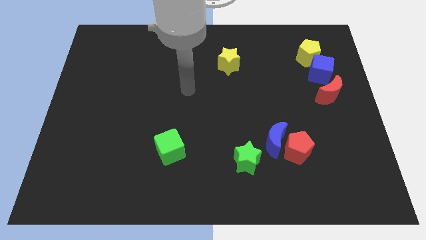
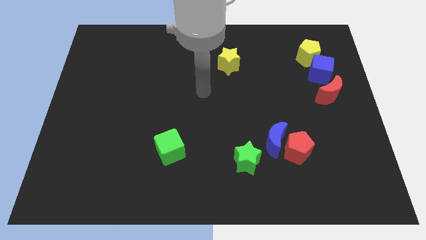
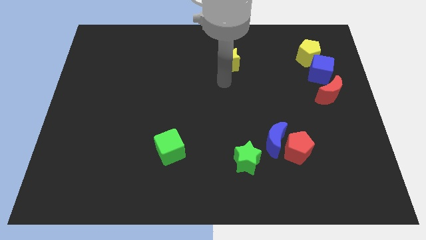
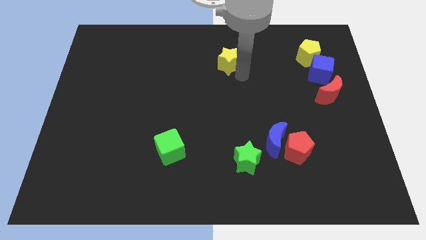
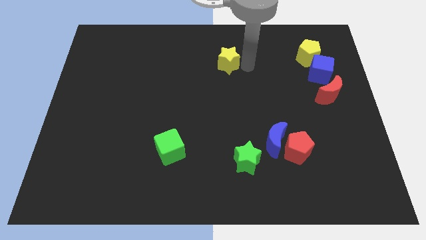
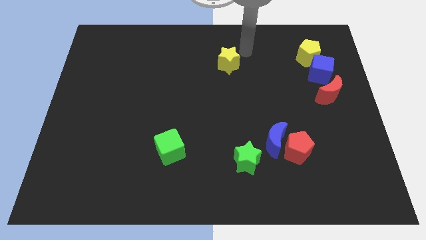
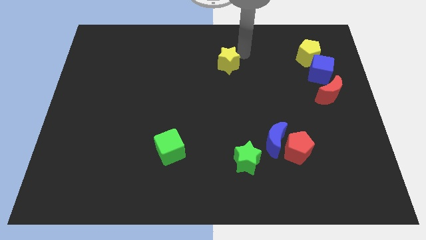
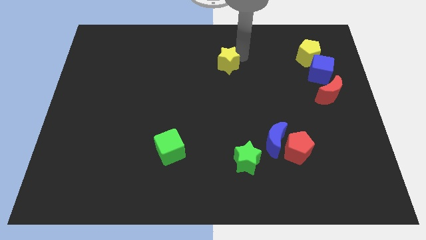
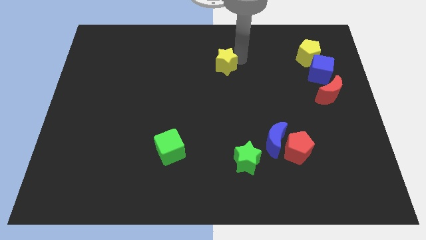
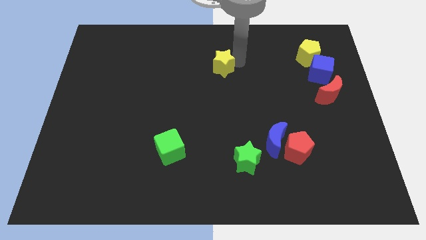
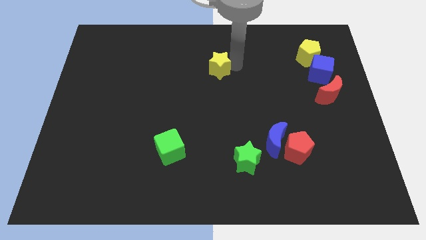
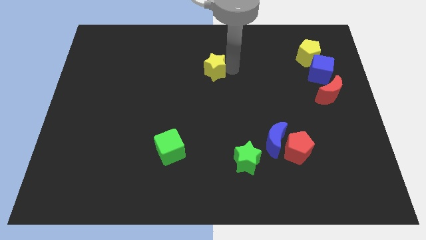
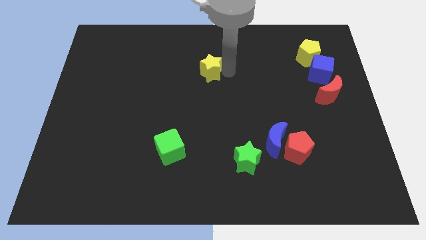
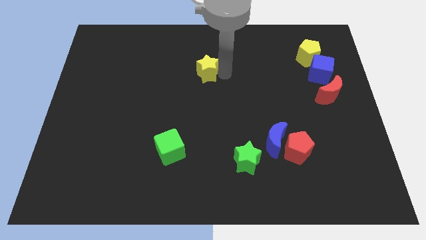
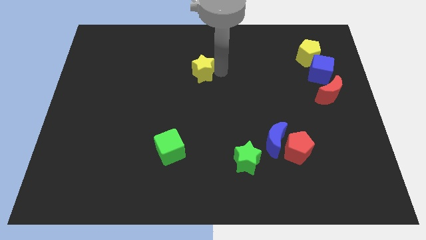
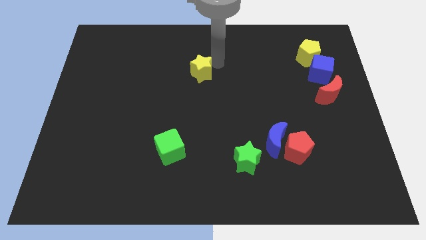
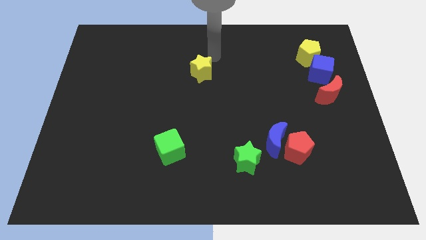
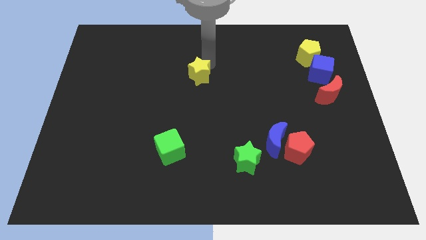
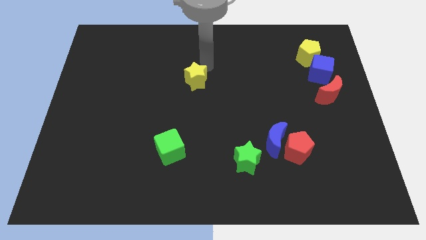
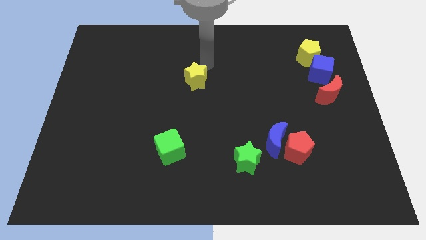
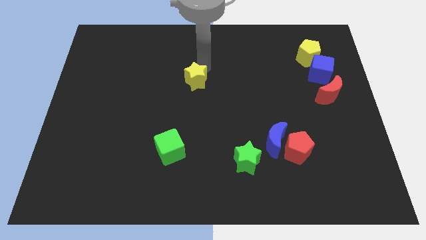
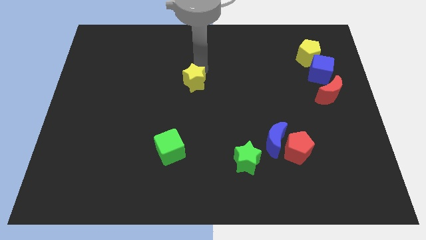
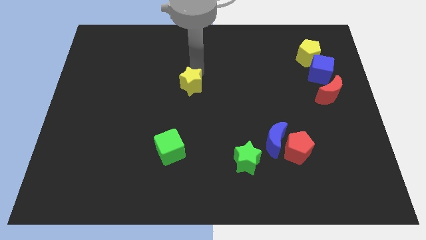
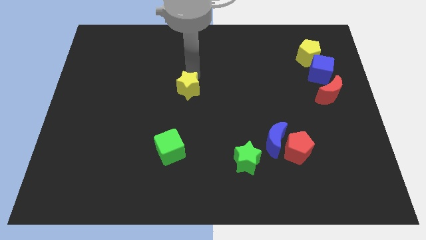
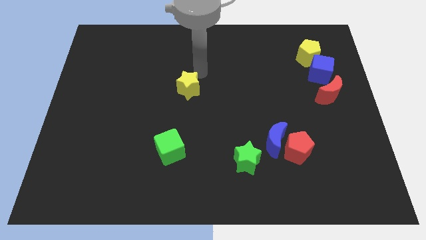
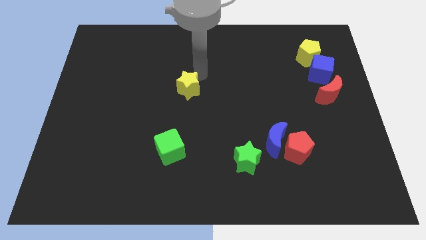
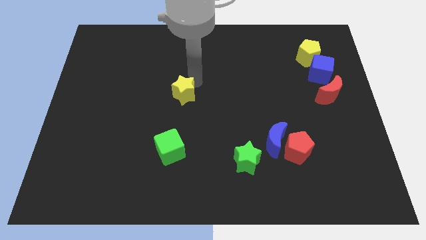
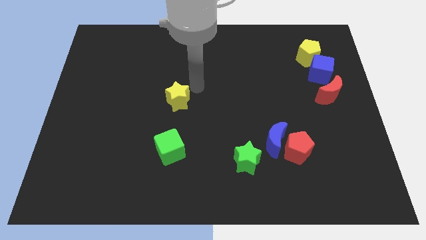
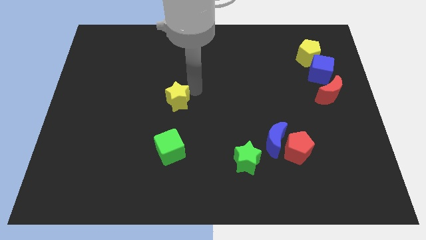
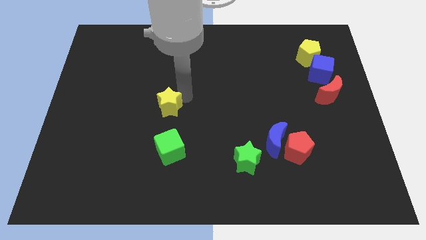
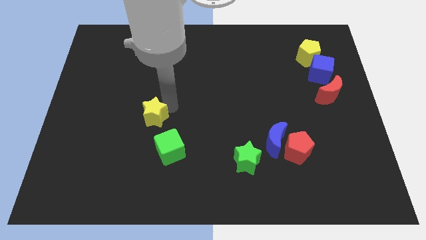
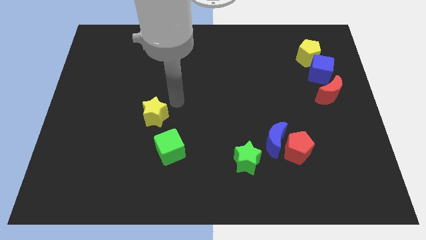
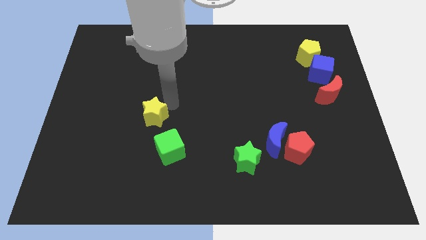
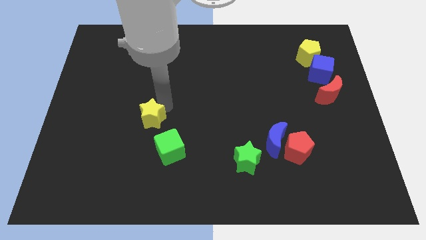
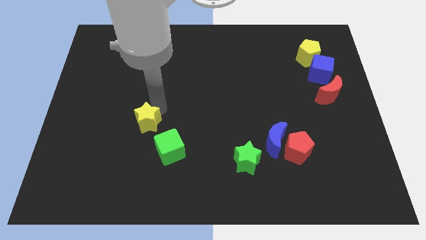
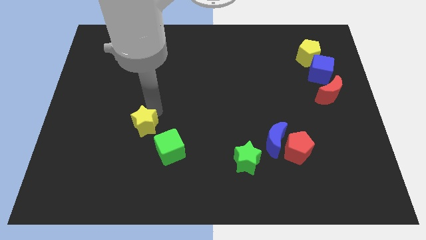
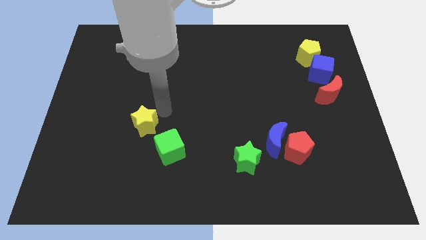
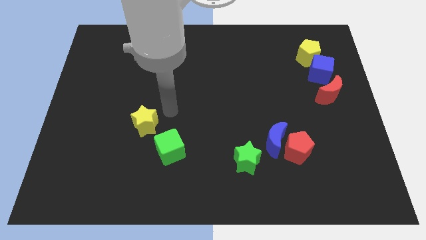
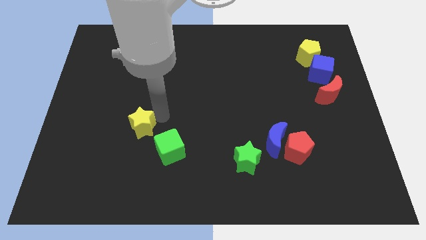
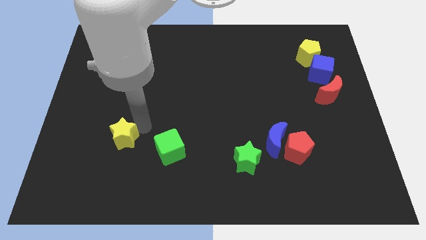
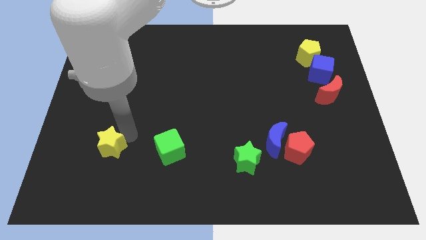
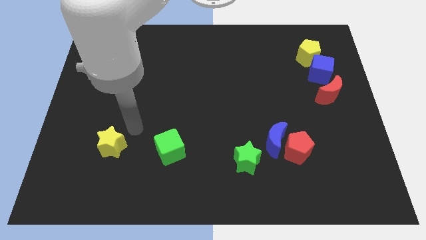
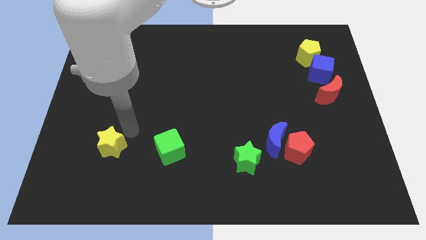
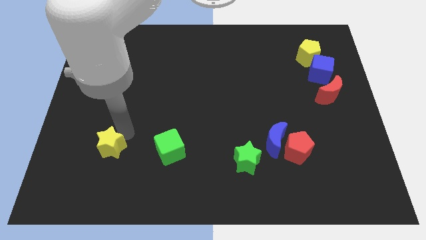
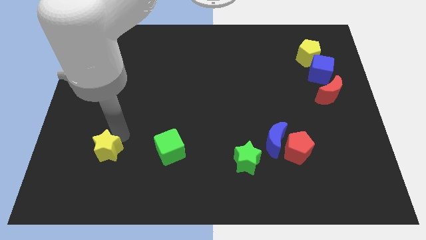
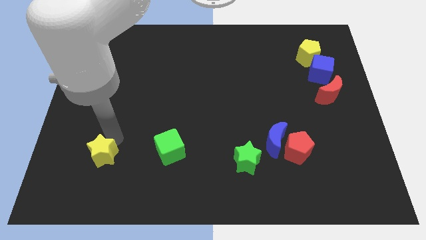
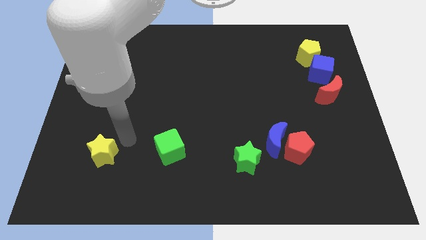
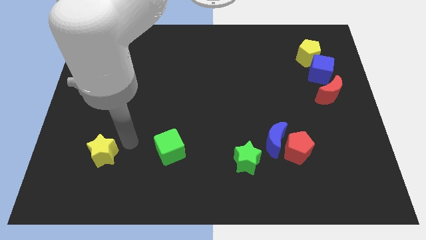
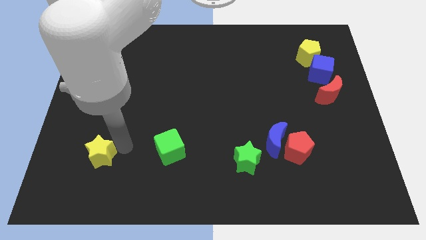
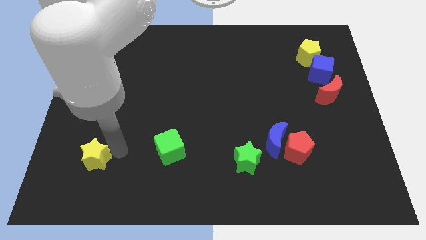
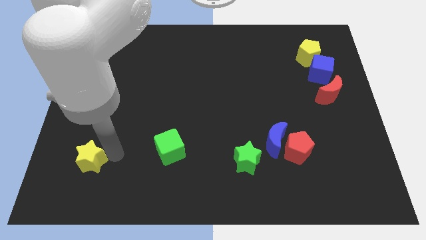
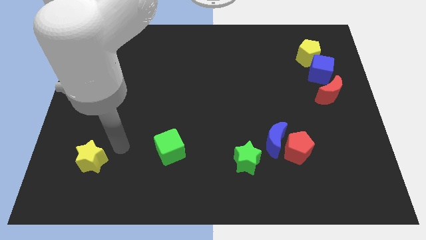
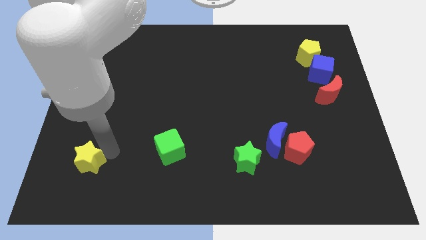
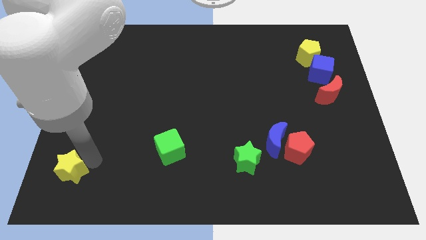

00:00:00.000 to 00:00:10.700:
push the yellow star to the bottom left corner

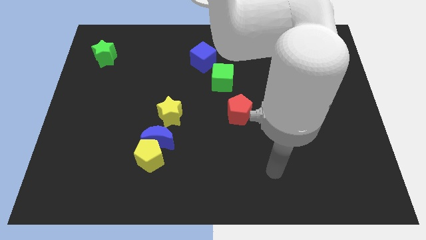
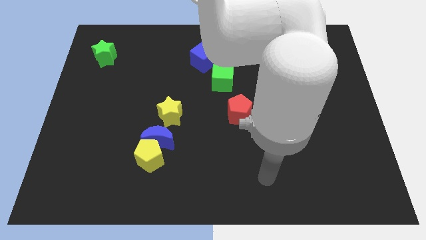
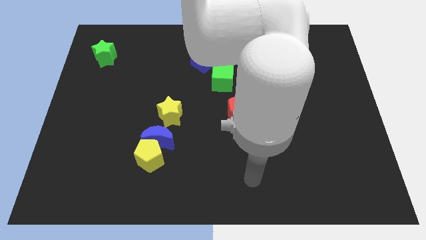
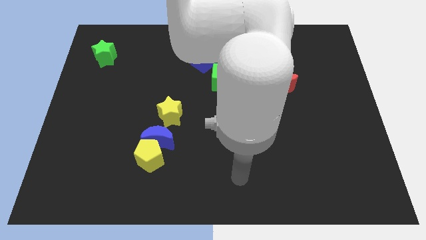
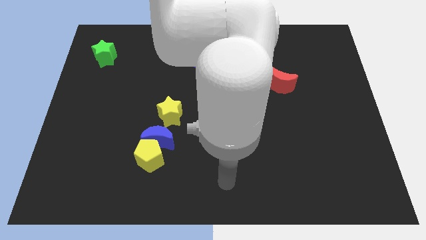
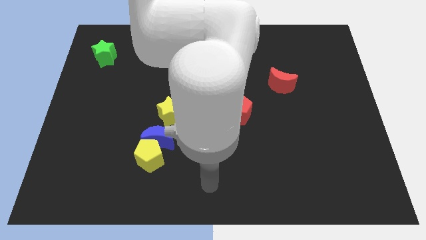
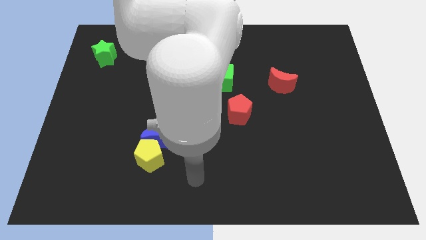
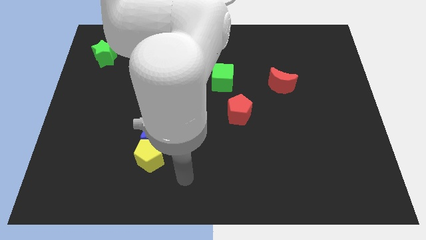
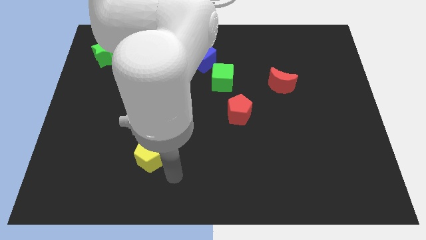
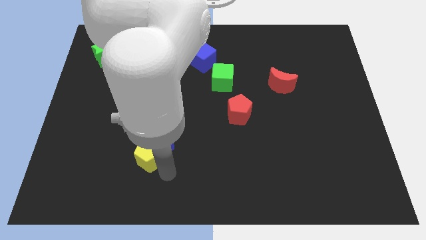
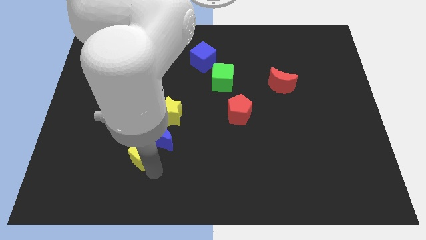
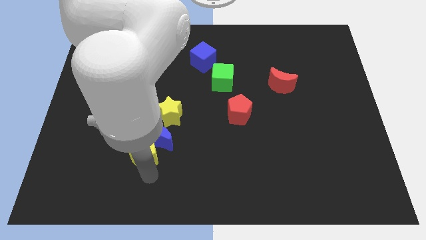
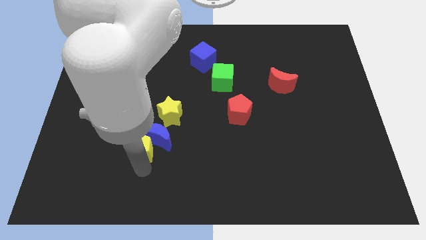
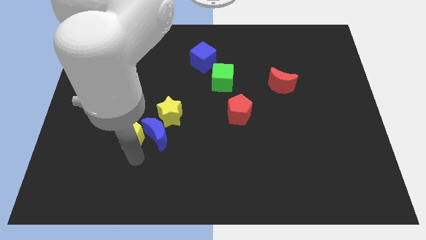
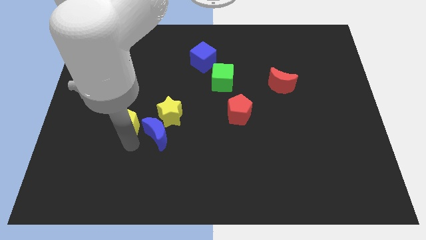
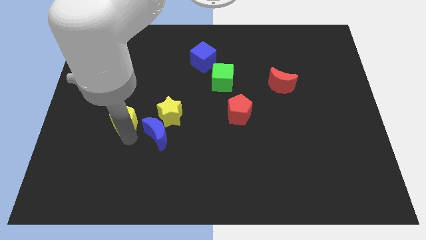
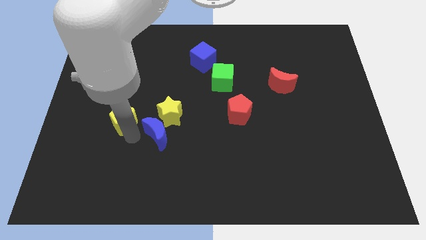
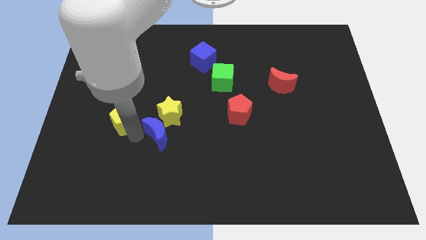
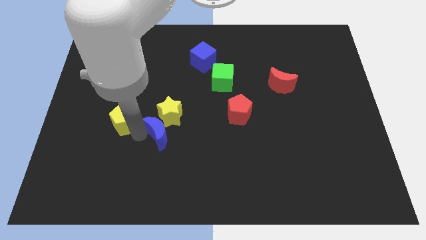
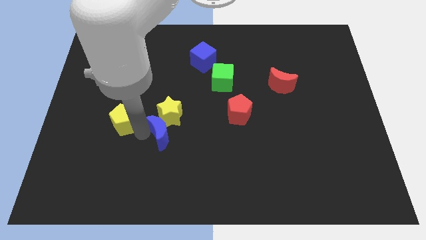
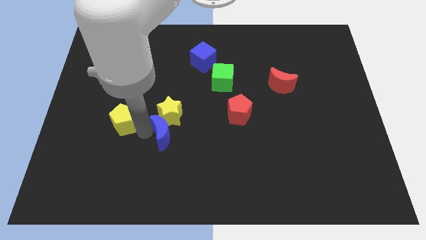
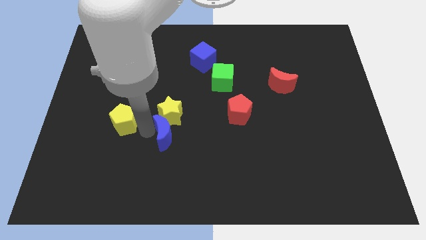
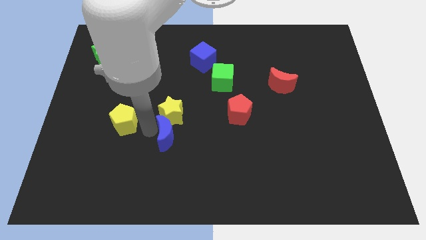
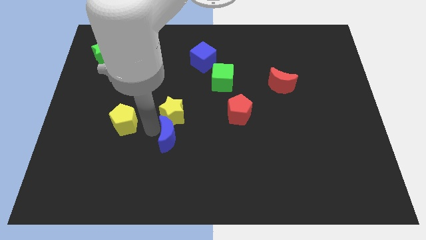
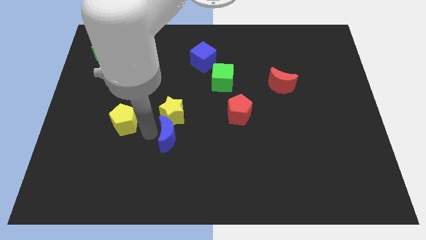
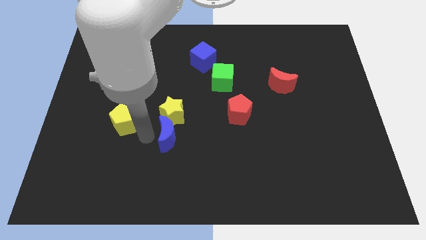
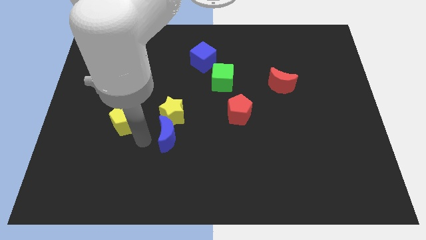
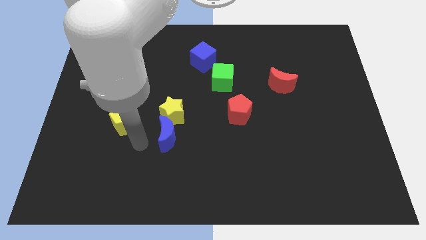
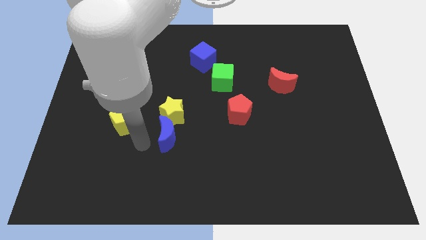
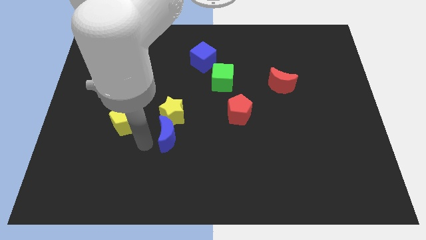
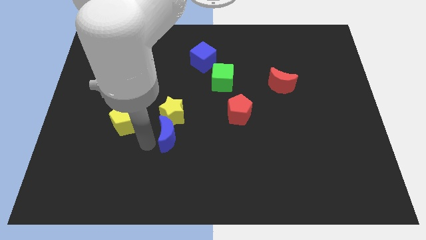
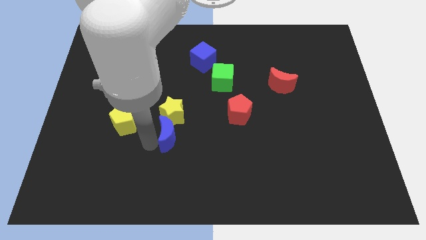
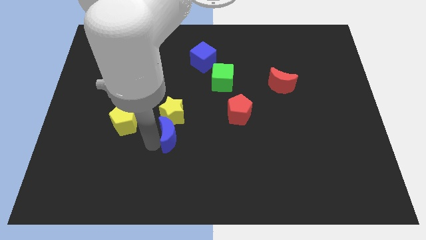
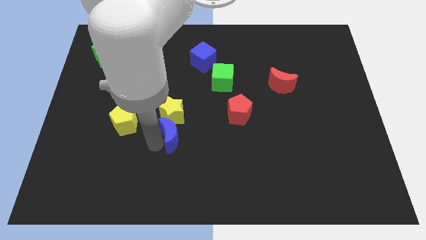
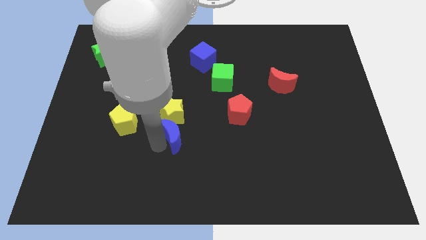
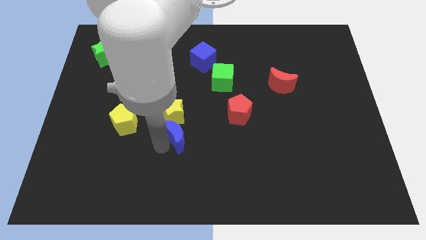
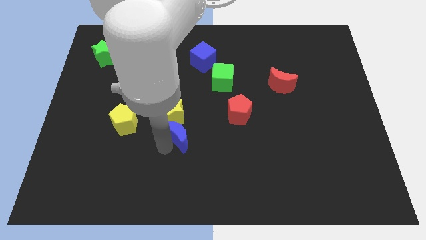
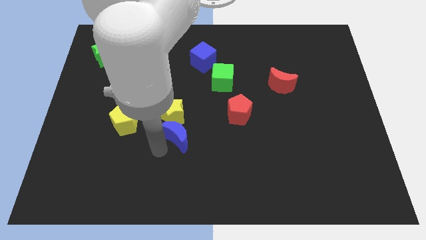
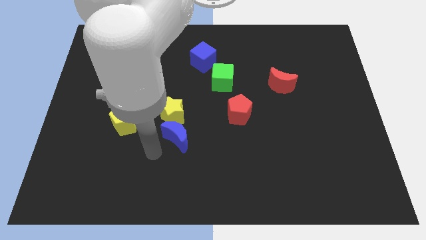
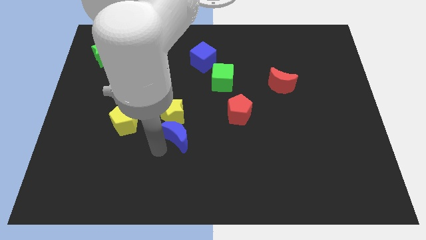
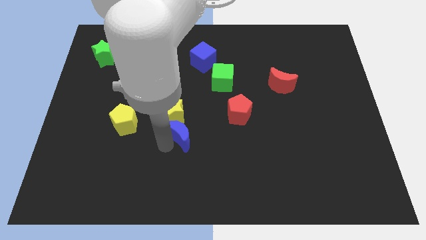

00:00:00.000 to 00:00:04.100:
push the blue moon to the middle of the board
